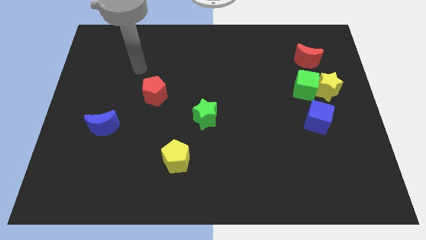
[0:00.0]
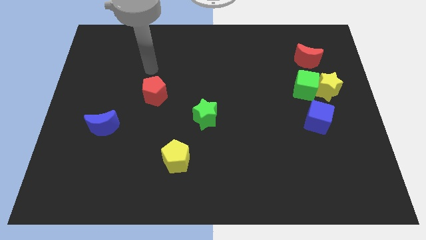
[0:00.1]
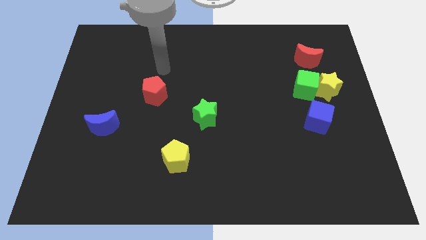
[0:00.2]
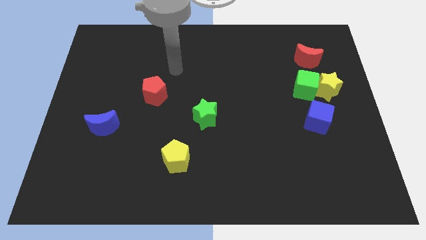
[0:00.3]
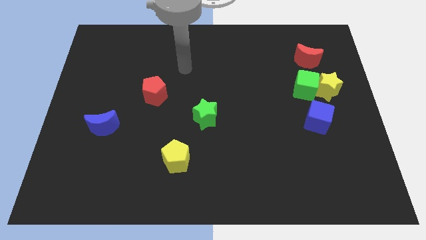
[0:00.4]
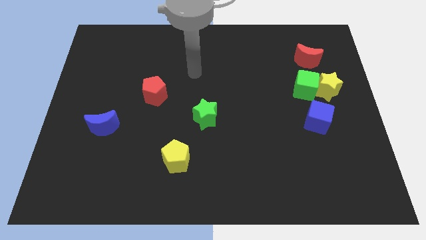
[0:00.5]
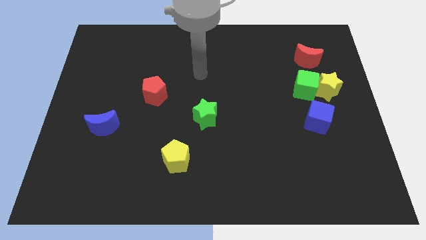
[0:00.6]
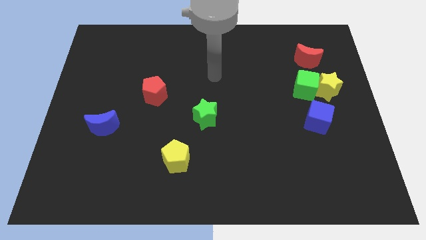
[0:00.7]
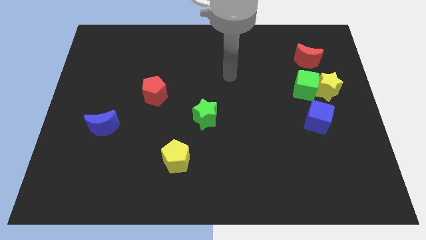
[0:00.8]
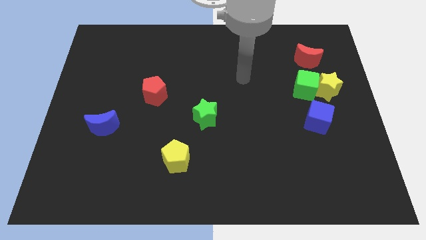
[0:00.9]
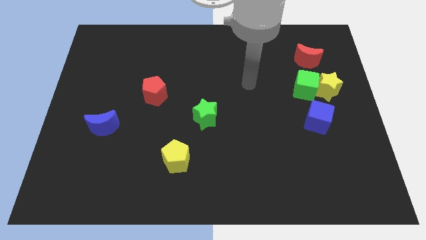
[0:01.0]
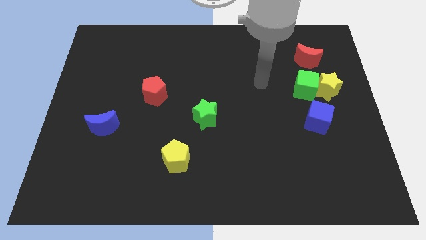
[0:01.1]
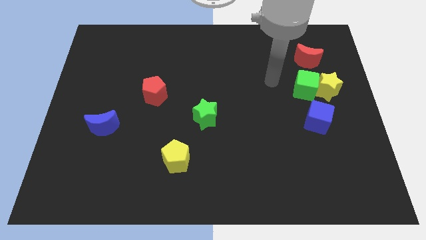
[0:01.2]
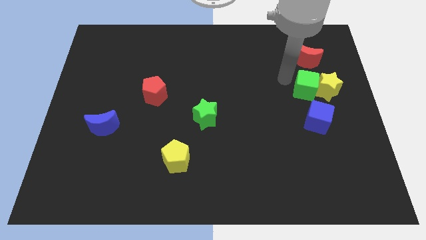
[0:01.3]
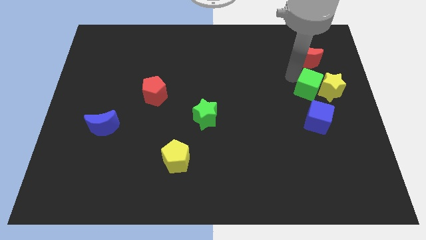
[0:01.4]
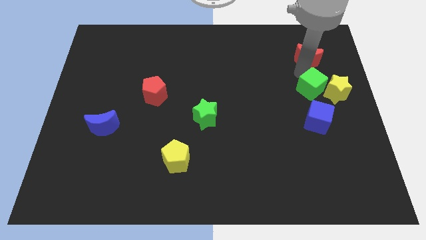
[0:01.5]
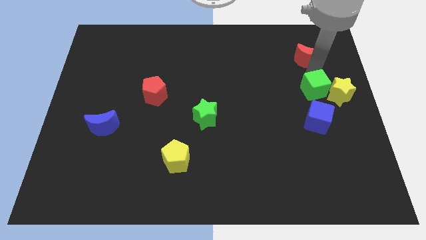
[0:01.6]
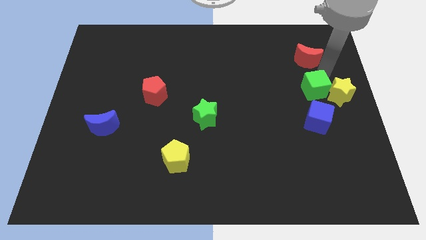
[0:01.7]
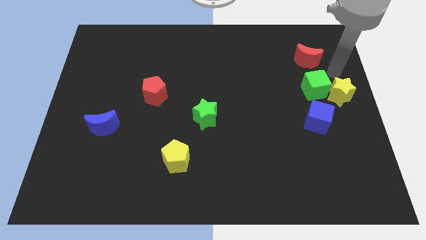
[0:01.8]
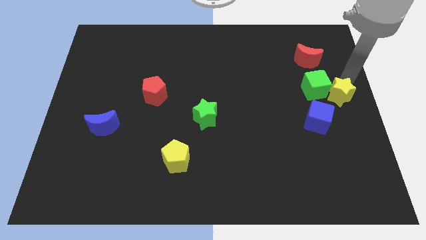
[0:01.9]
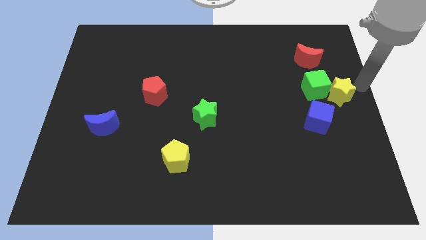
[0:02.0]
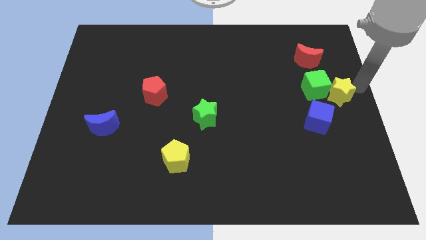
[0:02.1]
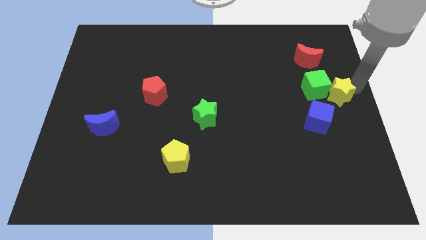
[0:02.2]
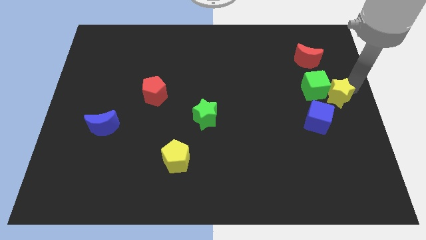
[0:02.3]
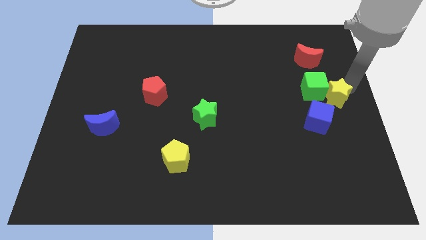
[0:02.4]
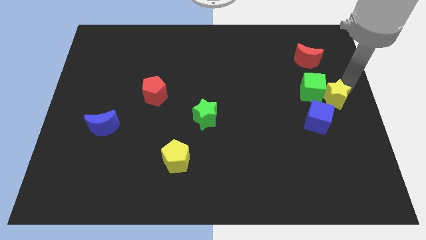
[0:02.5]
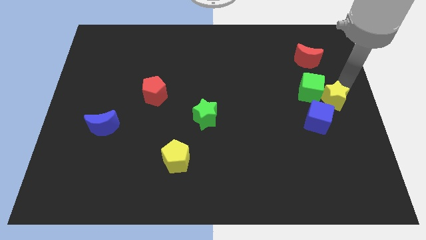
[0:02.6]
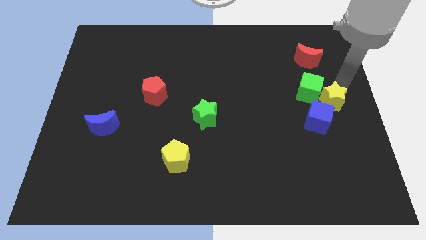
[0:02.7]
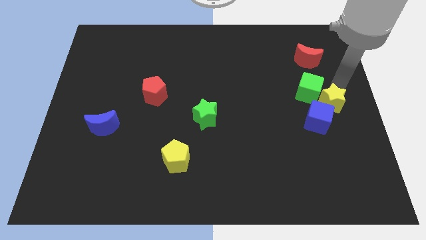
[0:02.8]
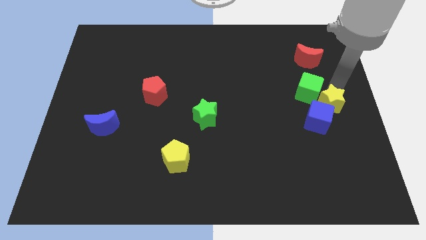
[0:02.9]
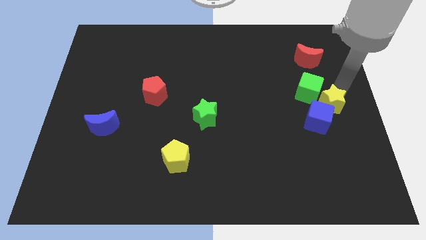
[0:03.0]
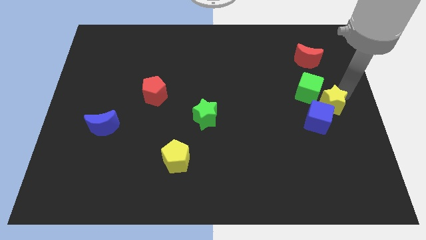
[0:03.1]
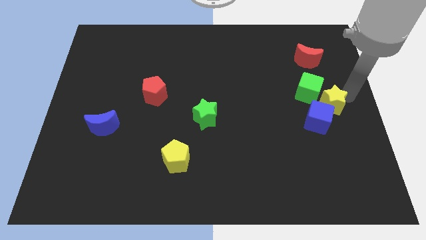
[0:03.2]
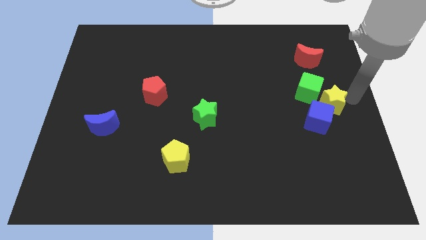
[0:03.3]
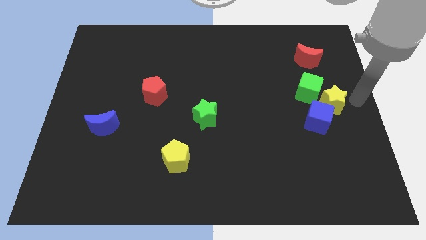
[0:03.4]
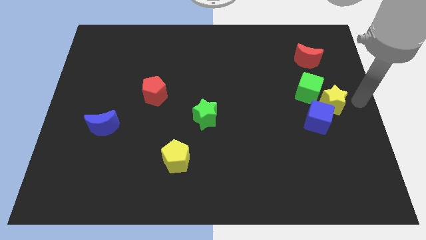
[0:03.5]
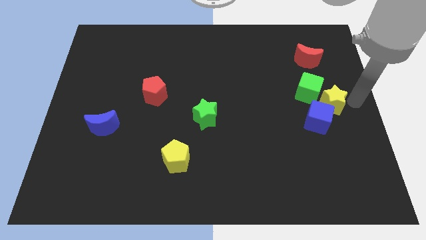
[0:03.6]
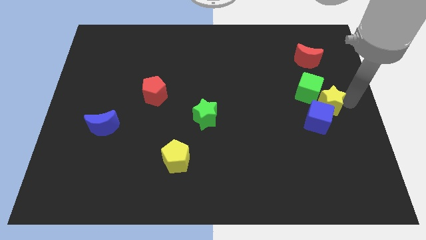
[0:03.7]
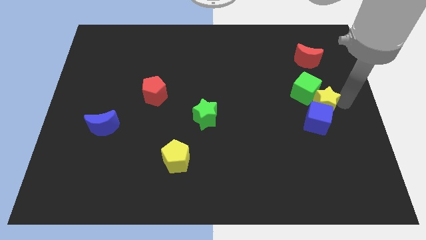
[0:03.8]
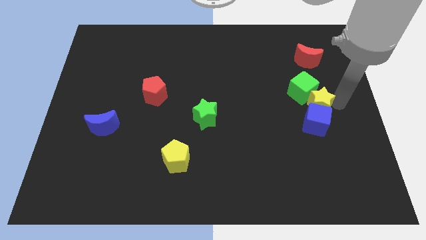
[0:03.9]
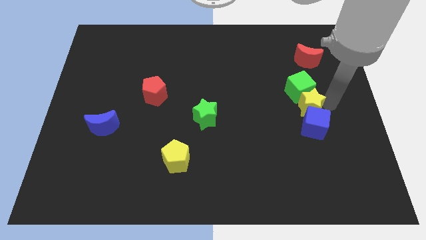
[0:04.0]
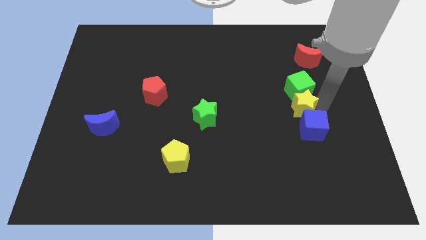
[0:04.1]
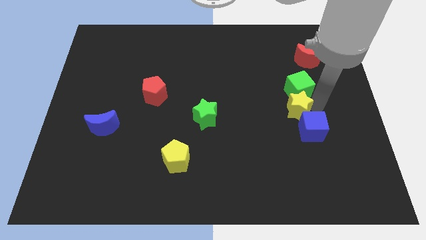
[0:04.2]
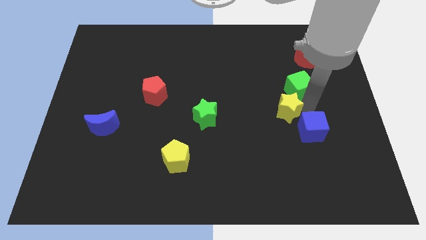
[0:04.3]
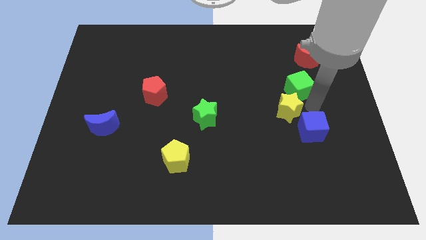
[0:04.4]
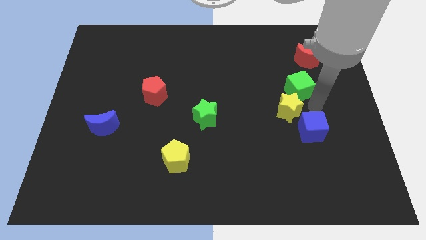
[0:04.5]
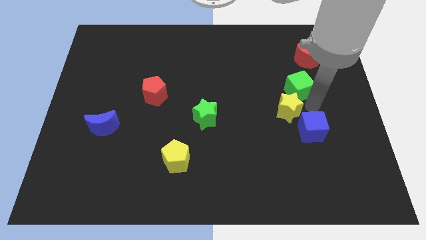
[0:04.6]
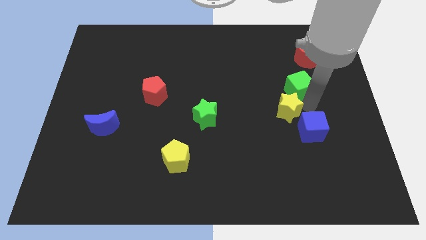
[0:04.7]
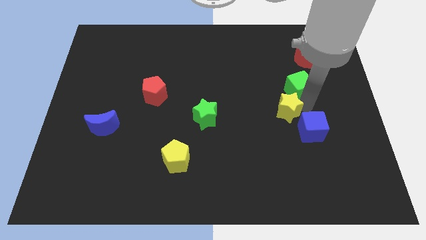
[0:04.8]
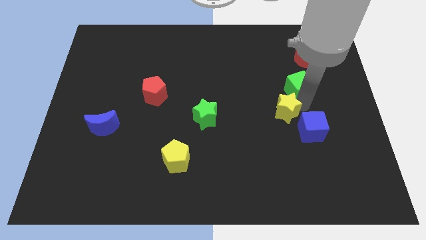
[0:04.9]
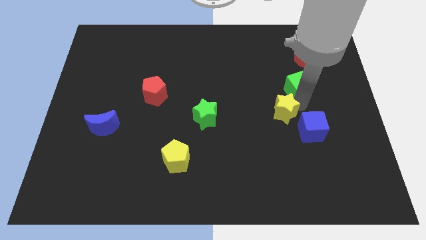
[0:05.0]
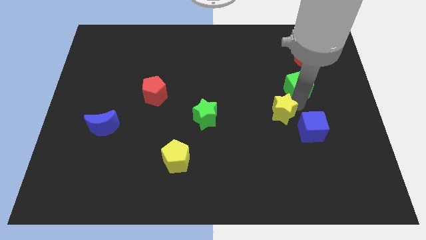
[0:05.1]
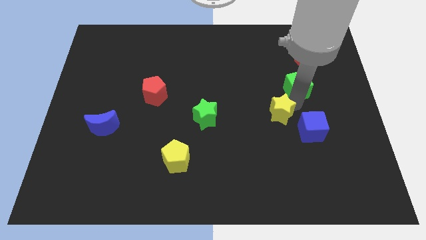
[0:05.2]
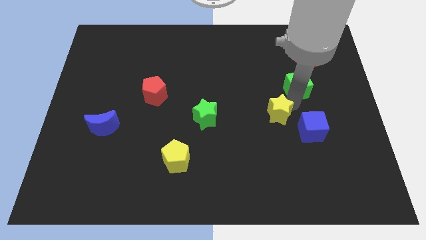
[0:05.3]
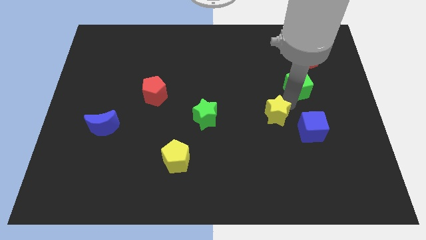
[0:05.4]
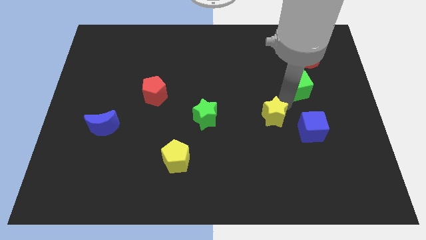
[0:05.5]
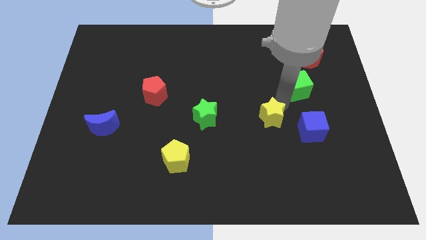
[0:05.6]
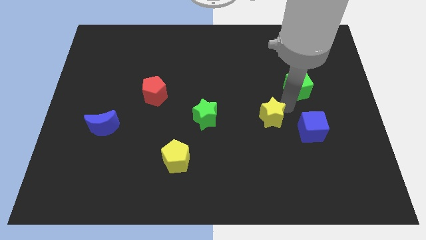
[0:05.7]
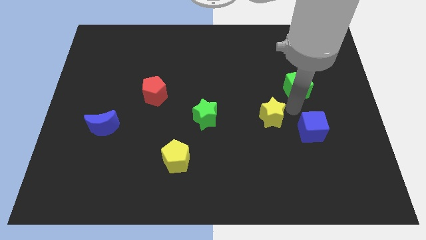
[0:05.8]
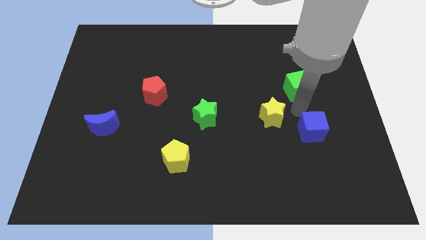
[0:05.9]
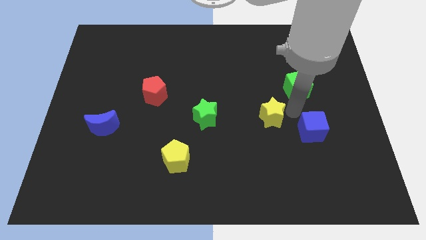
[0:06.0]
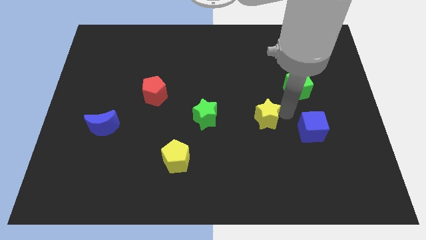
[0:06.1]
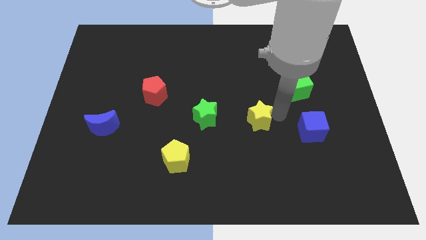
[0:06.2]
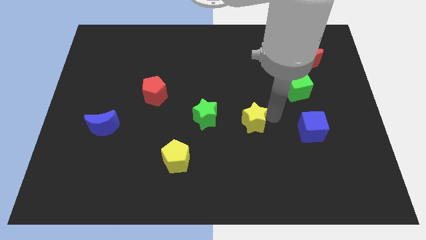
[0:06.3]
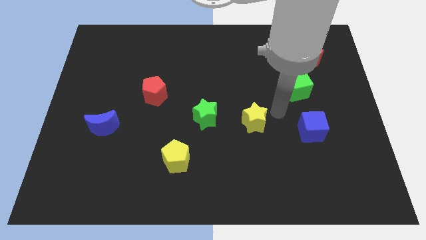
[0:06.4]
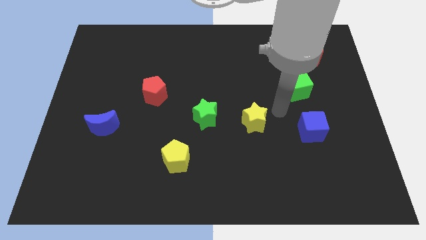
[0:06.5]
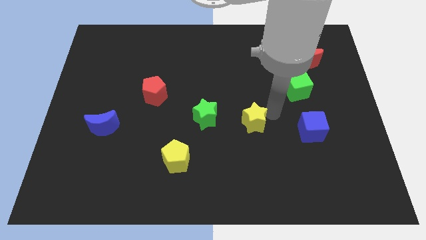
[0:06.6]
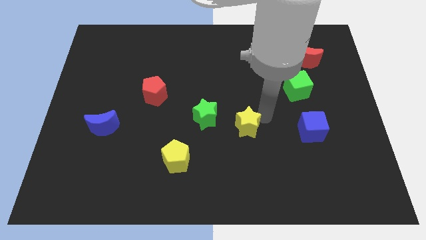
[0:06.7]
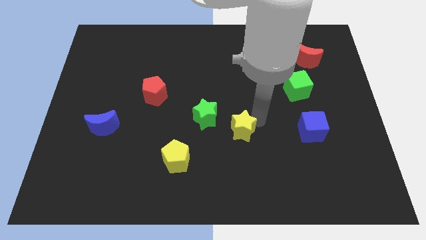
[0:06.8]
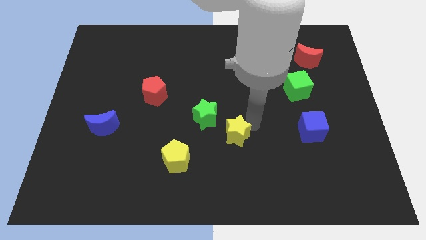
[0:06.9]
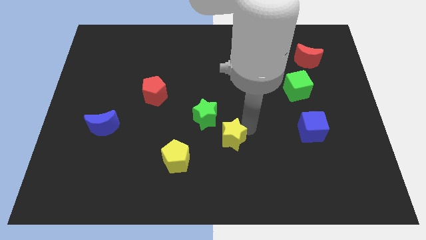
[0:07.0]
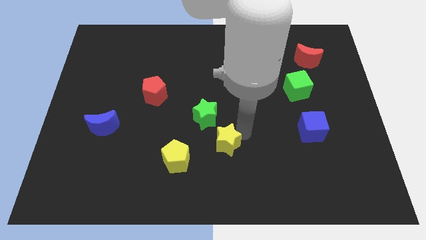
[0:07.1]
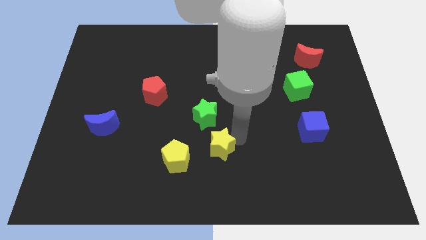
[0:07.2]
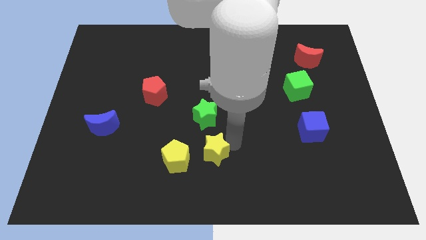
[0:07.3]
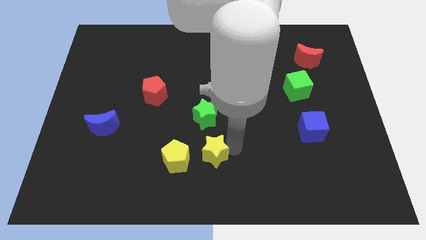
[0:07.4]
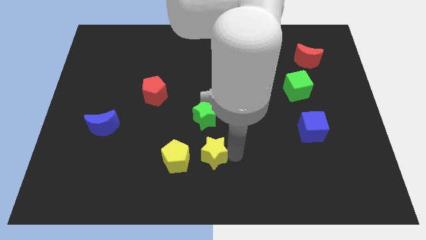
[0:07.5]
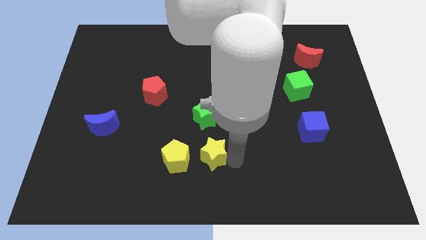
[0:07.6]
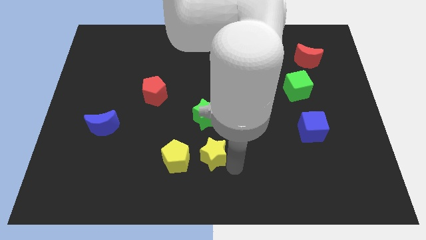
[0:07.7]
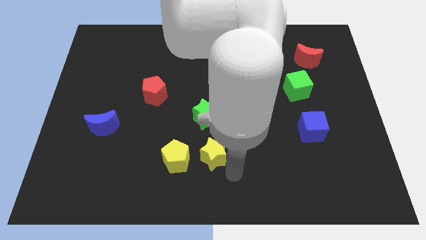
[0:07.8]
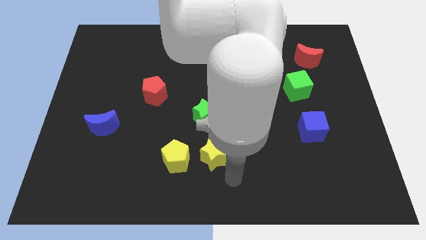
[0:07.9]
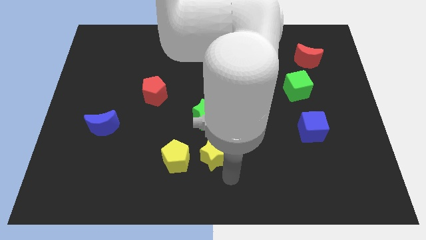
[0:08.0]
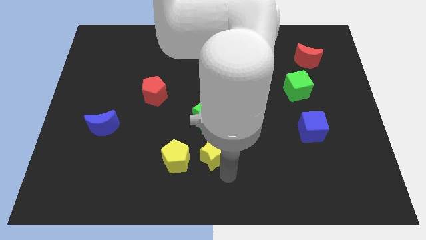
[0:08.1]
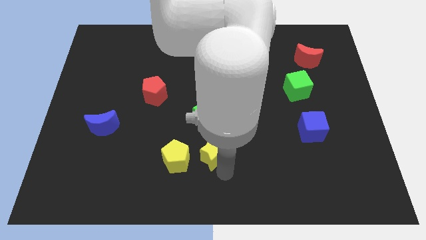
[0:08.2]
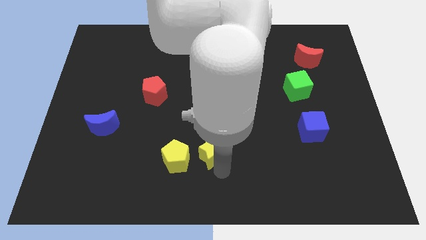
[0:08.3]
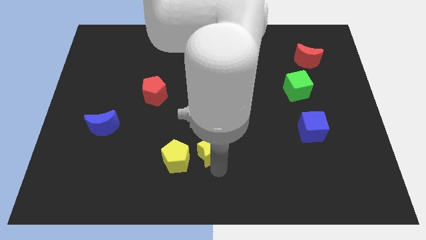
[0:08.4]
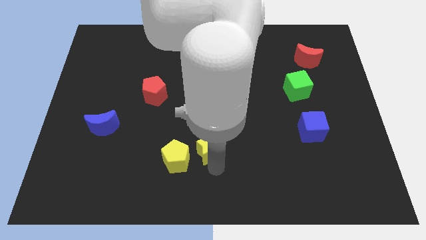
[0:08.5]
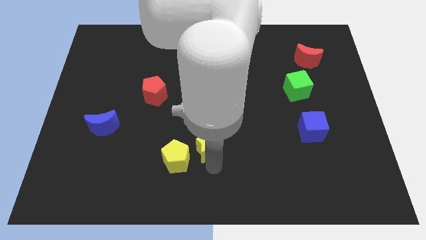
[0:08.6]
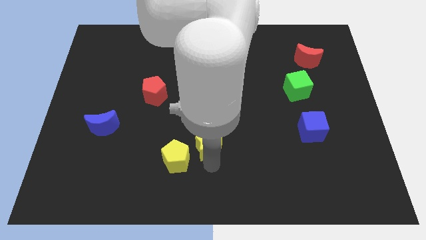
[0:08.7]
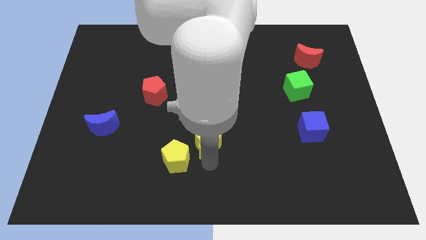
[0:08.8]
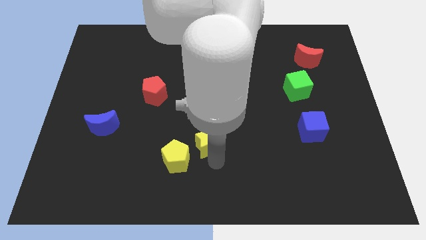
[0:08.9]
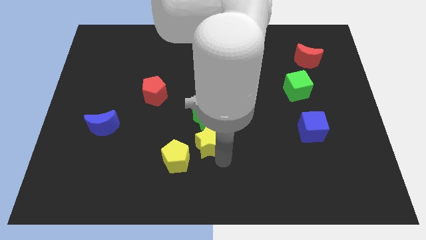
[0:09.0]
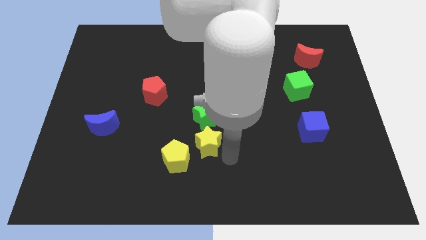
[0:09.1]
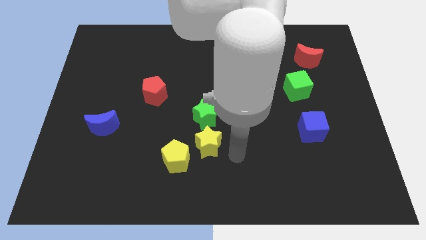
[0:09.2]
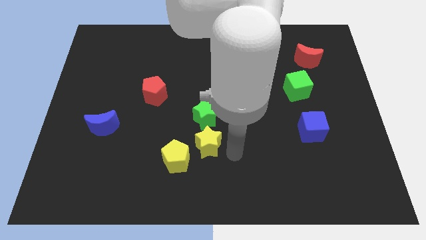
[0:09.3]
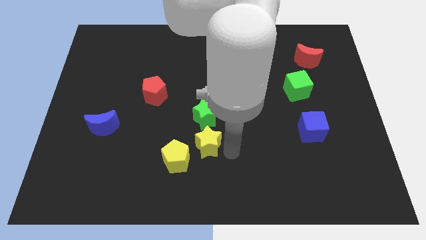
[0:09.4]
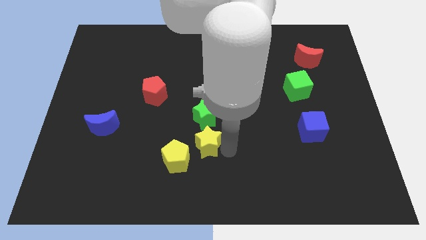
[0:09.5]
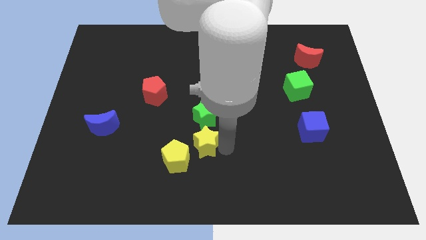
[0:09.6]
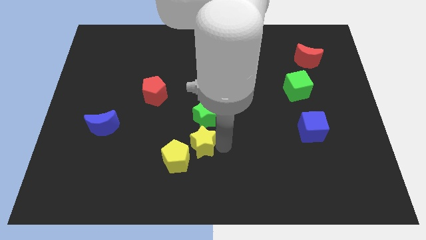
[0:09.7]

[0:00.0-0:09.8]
move the yellow star to the bottom left of the green star
